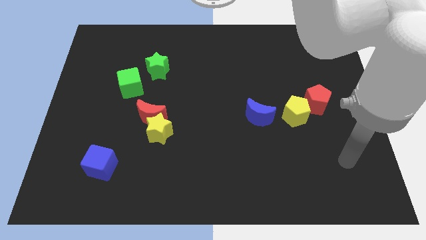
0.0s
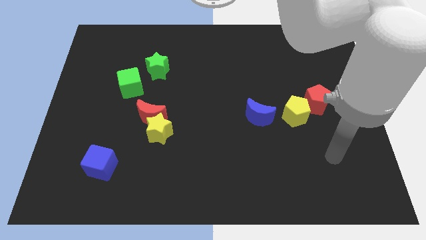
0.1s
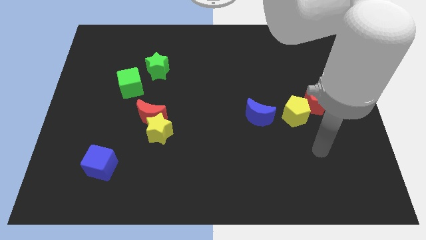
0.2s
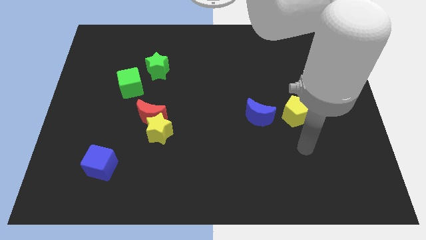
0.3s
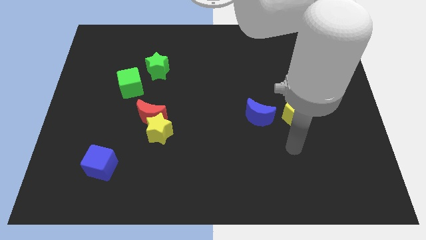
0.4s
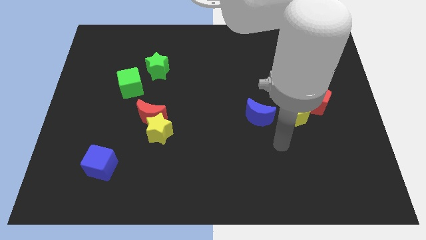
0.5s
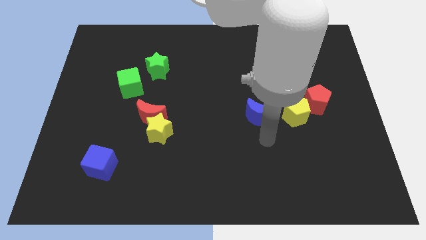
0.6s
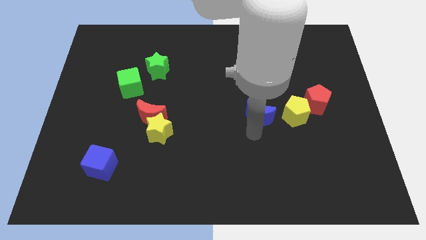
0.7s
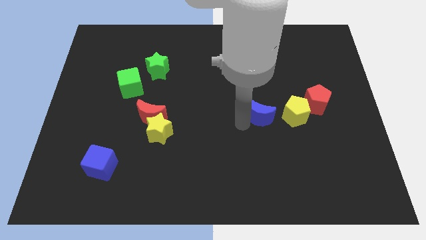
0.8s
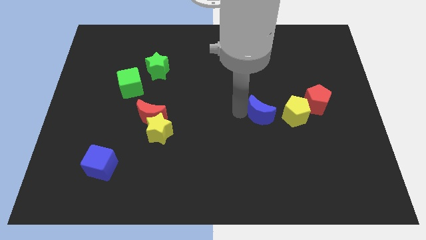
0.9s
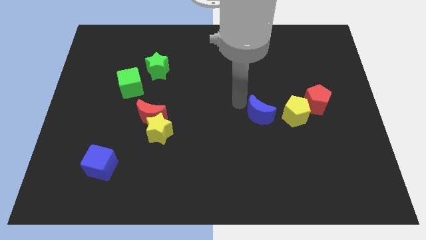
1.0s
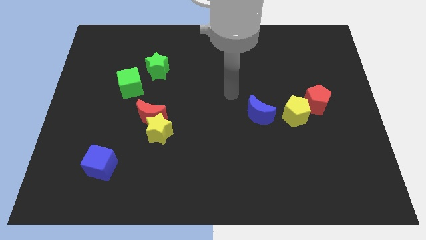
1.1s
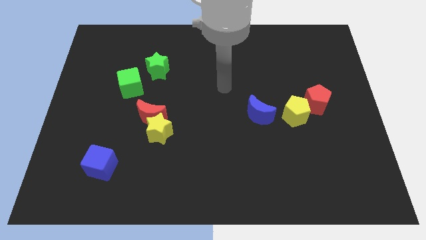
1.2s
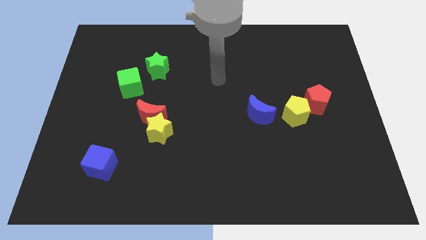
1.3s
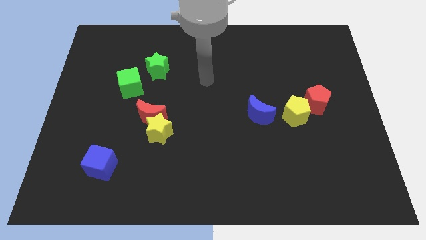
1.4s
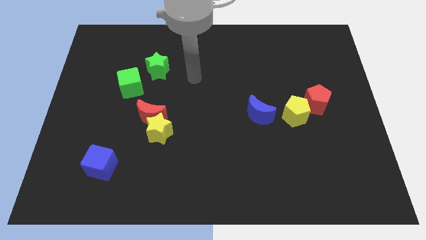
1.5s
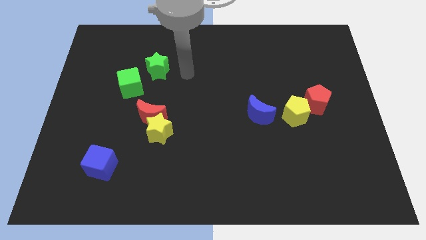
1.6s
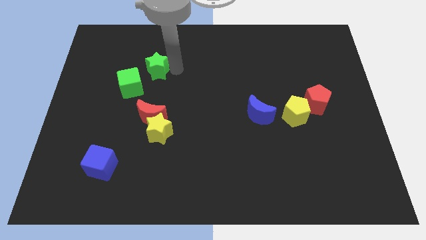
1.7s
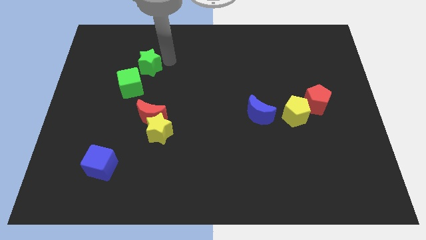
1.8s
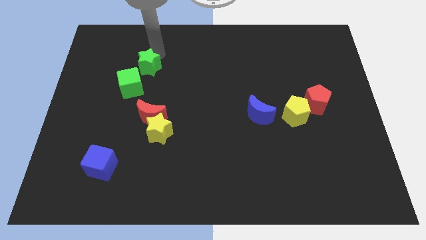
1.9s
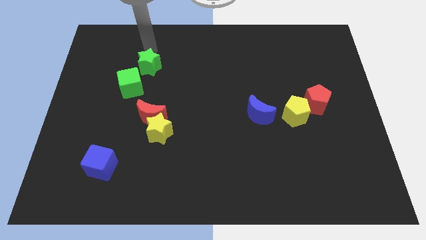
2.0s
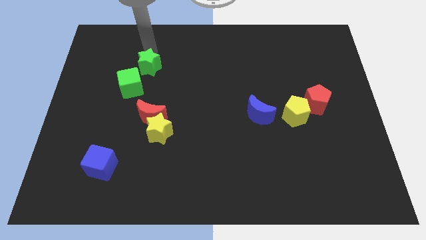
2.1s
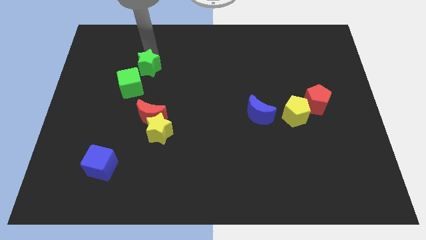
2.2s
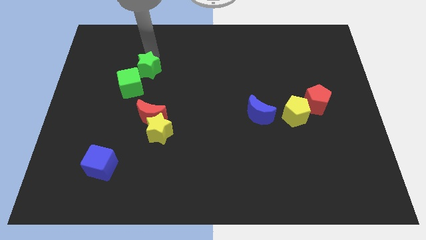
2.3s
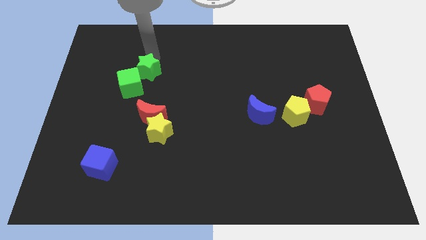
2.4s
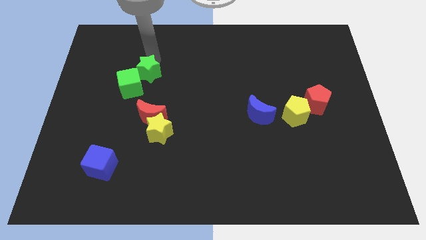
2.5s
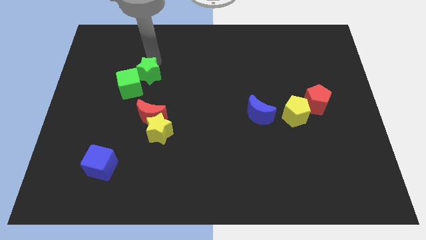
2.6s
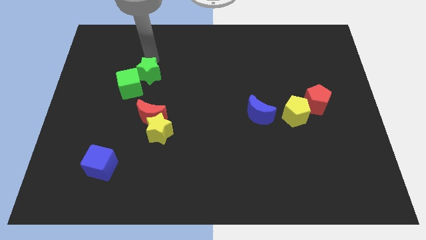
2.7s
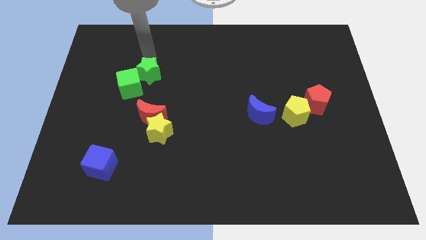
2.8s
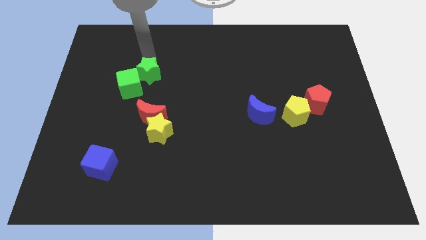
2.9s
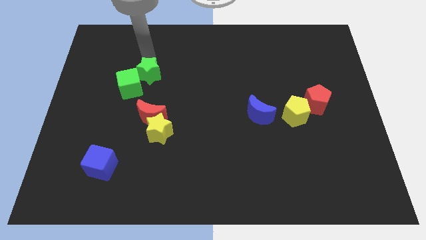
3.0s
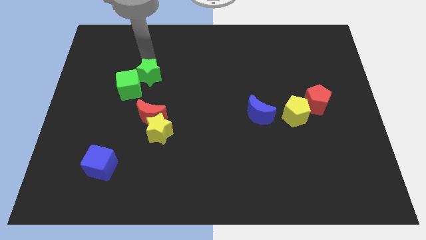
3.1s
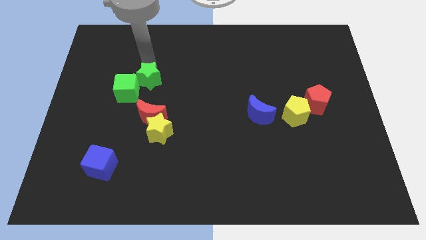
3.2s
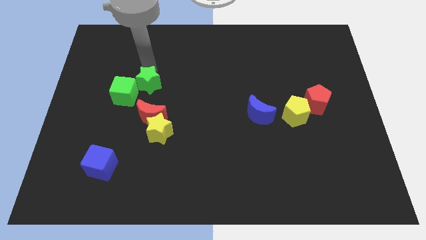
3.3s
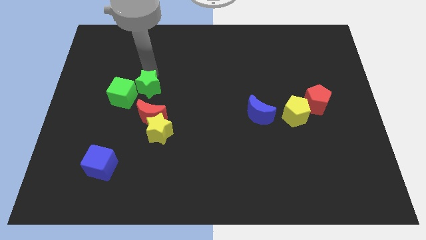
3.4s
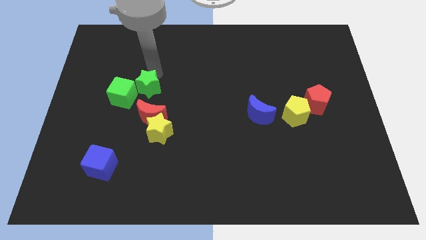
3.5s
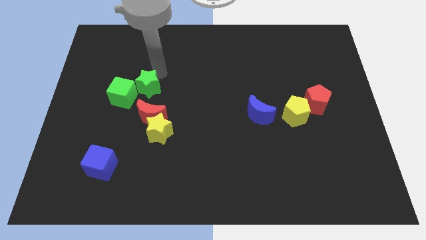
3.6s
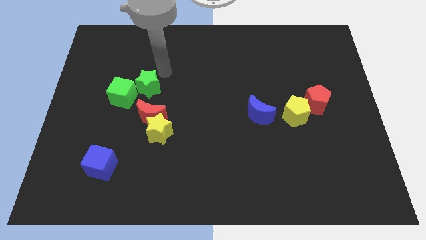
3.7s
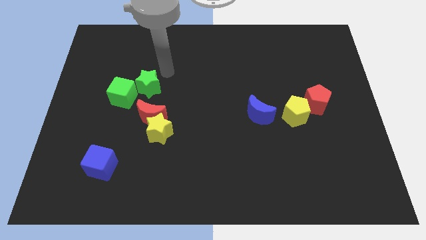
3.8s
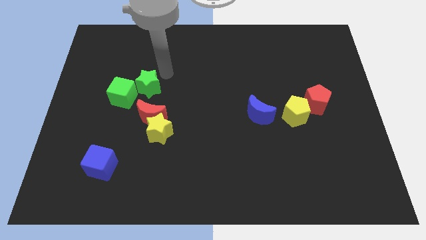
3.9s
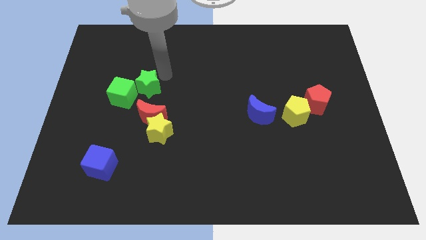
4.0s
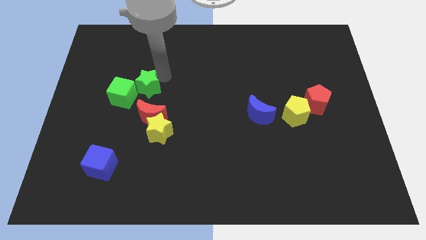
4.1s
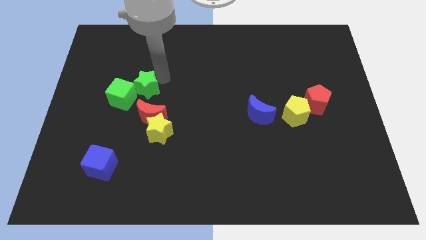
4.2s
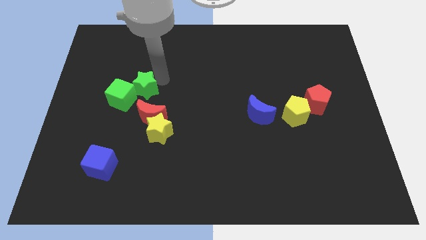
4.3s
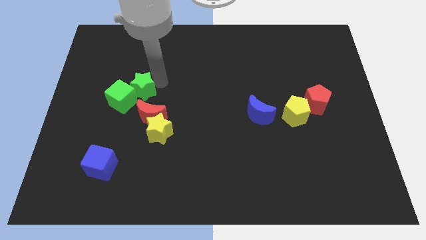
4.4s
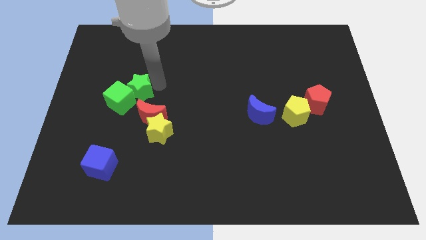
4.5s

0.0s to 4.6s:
slide the green star downwards and left diagonally a bit

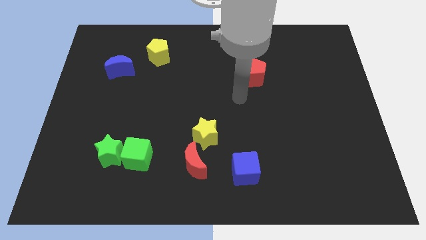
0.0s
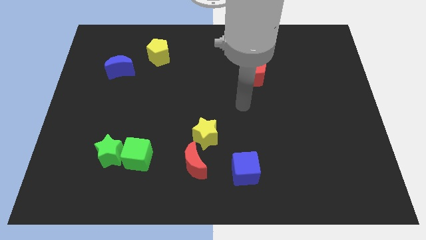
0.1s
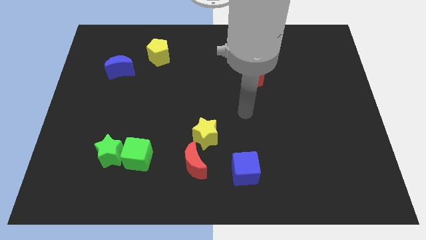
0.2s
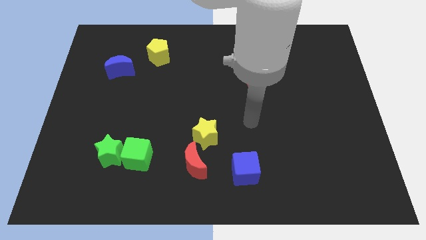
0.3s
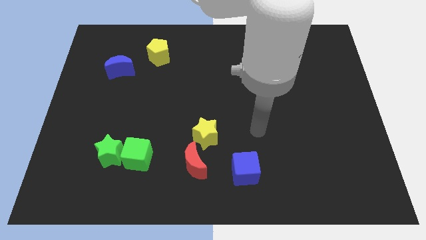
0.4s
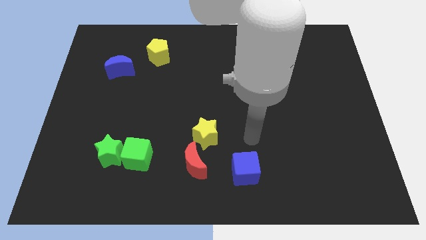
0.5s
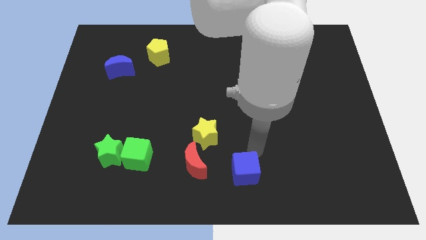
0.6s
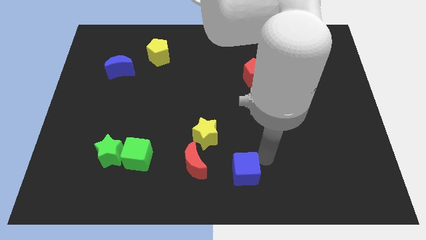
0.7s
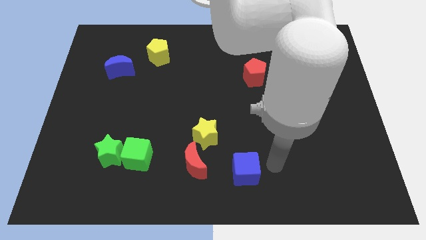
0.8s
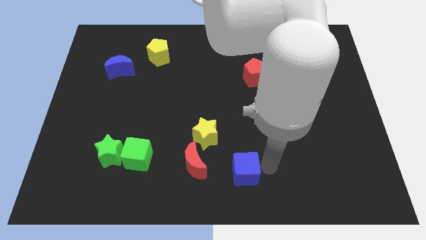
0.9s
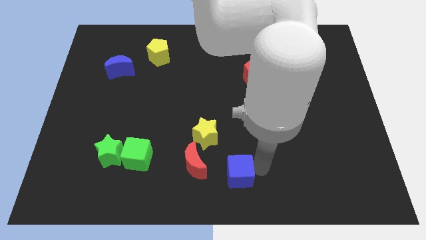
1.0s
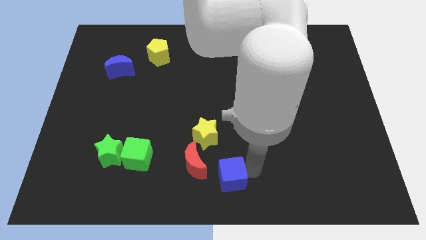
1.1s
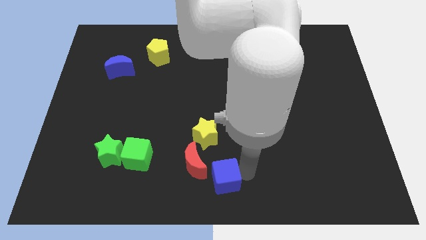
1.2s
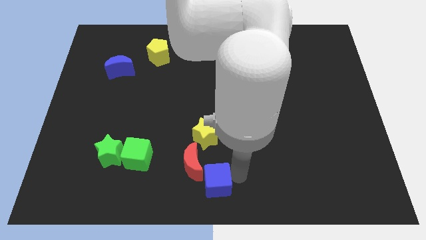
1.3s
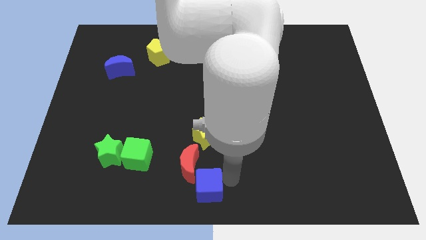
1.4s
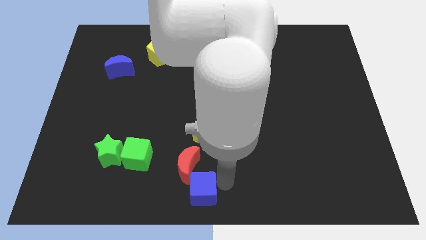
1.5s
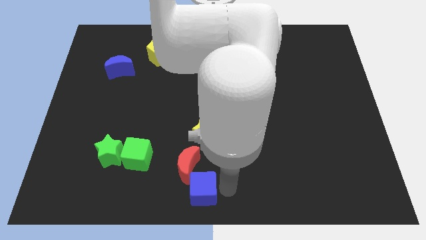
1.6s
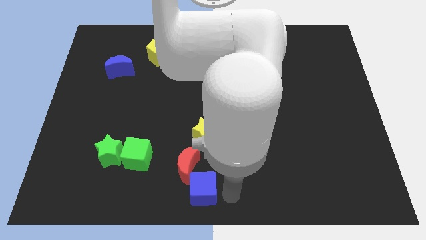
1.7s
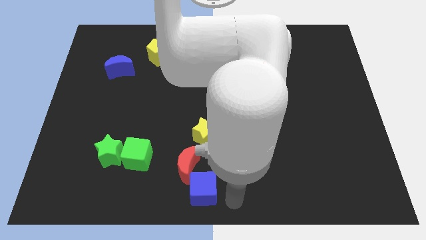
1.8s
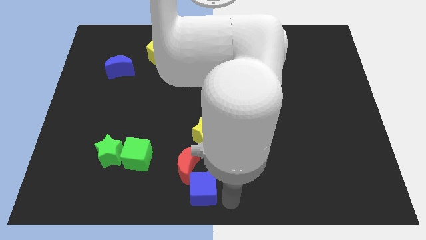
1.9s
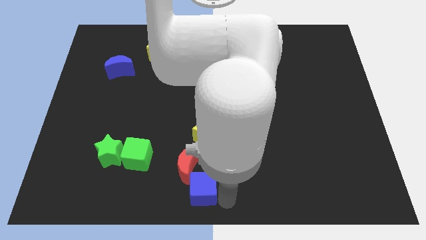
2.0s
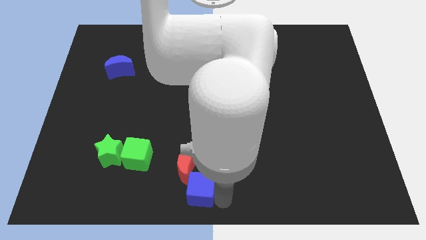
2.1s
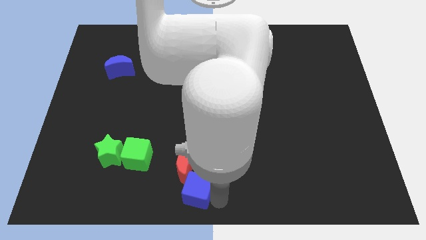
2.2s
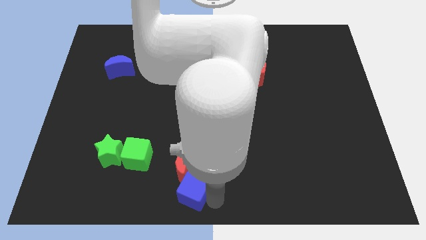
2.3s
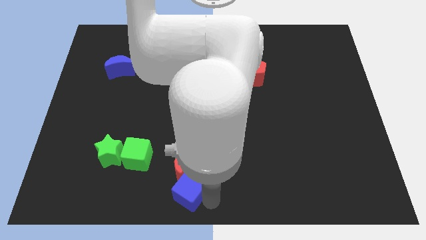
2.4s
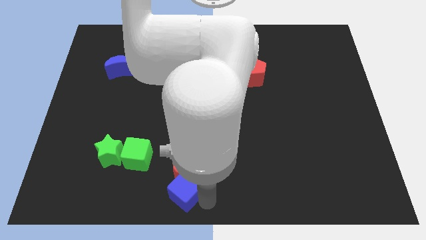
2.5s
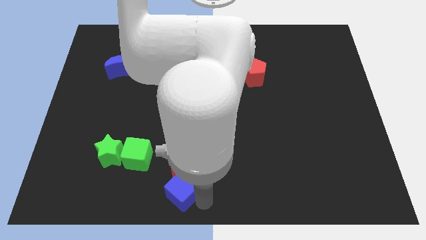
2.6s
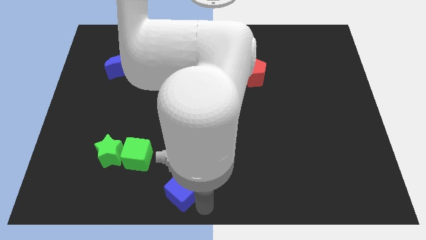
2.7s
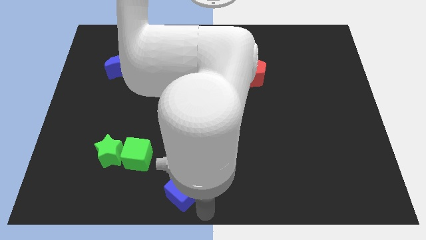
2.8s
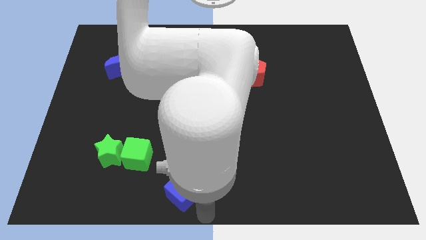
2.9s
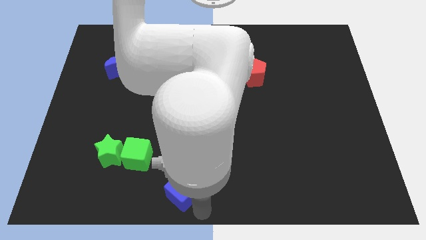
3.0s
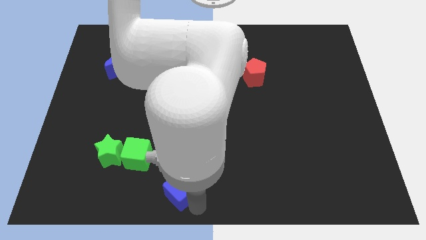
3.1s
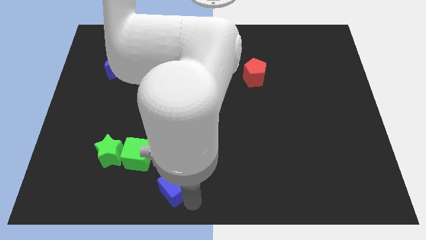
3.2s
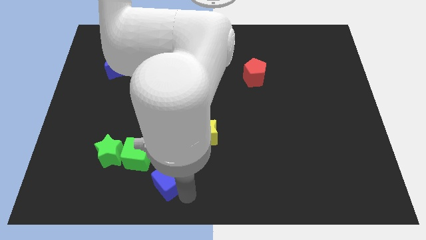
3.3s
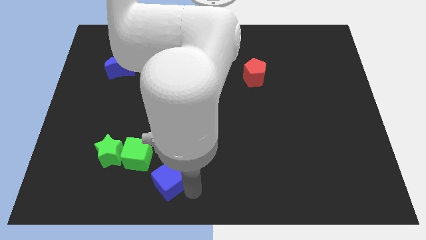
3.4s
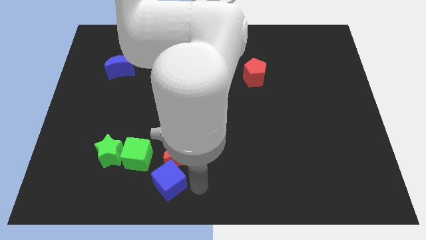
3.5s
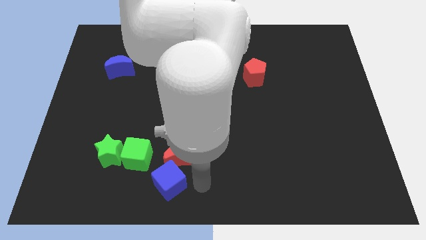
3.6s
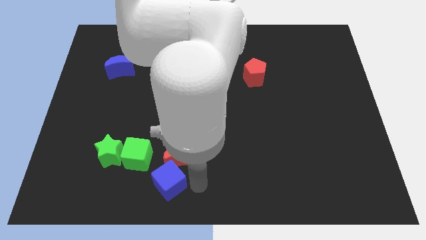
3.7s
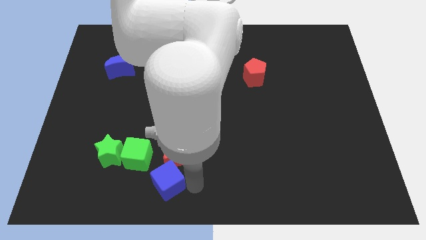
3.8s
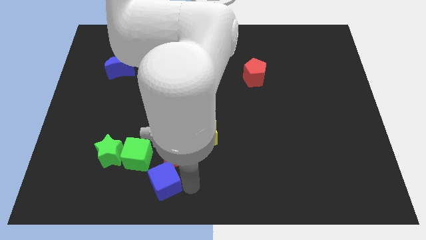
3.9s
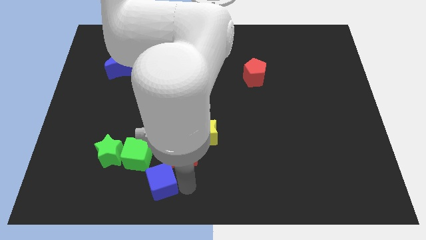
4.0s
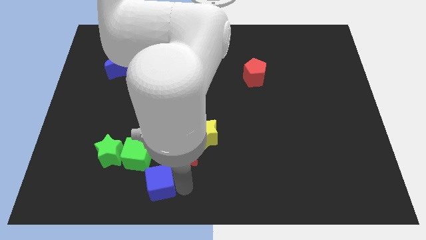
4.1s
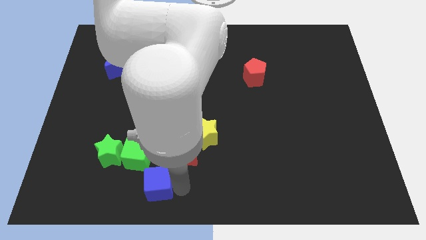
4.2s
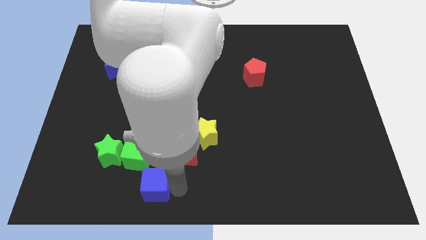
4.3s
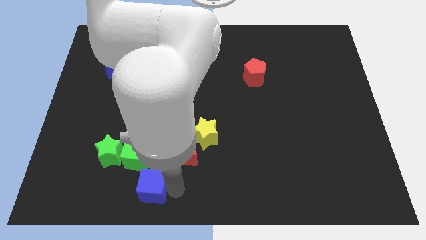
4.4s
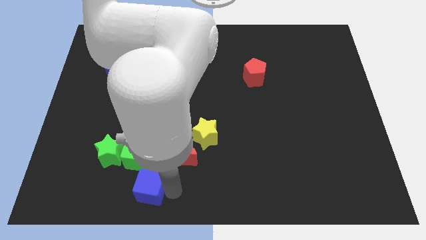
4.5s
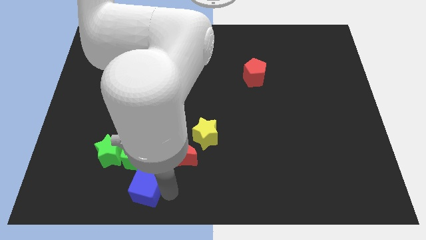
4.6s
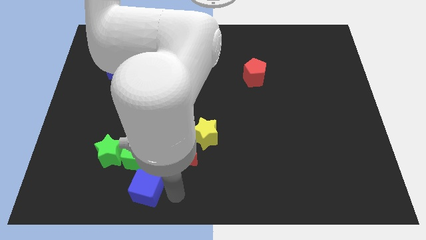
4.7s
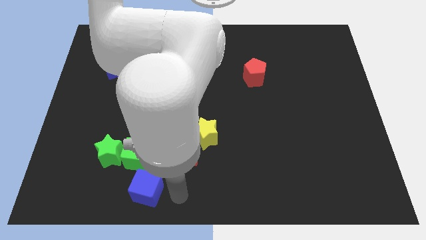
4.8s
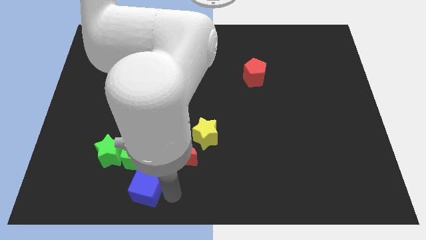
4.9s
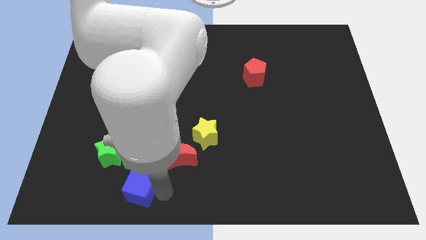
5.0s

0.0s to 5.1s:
move the blue cube to the left
